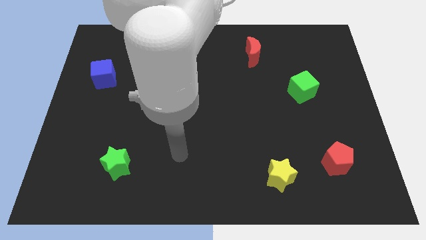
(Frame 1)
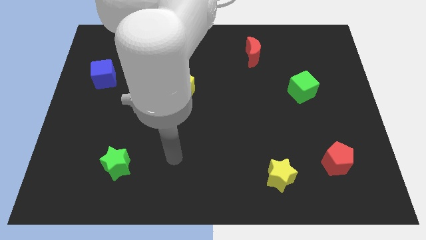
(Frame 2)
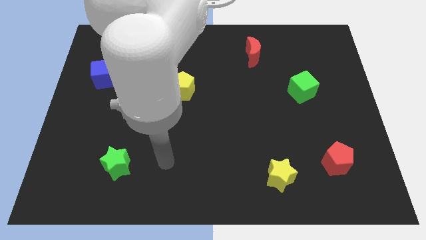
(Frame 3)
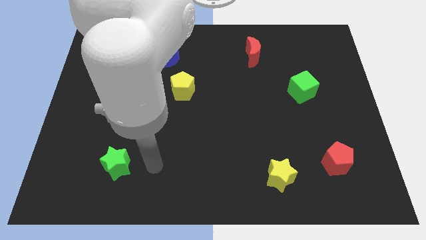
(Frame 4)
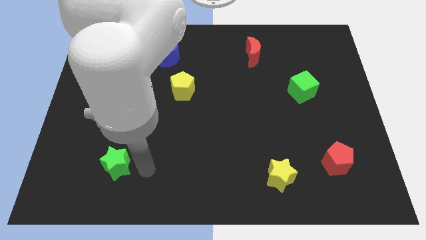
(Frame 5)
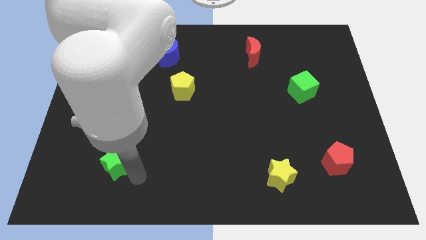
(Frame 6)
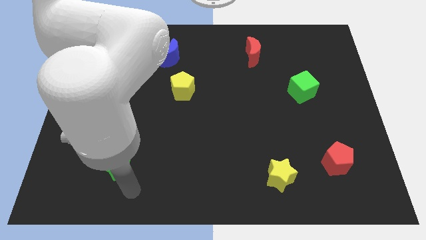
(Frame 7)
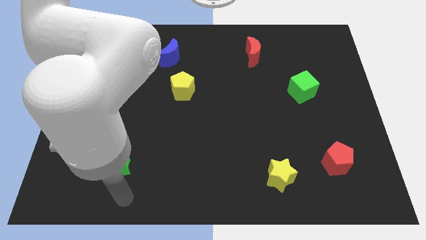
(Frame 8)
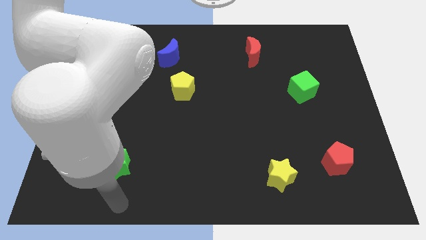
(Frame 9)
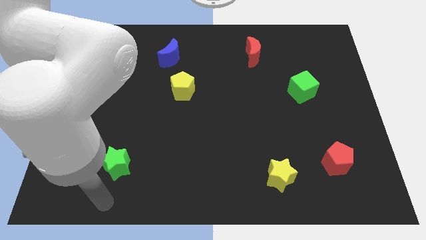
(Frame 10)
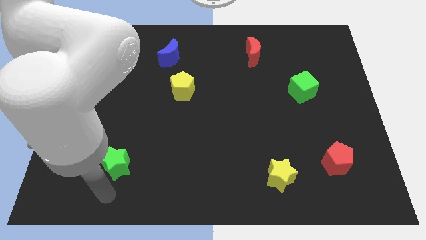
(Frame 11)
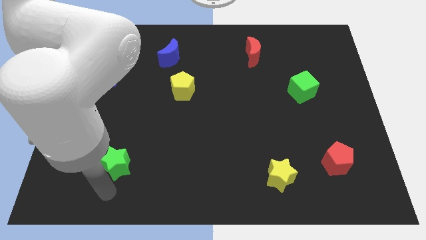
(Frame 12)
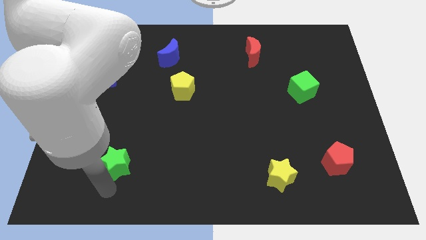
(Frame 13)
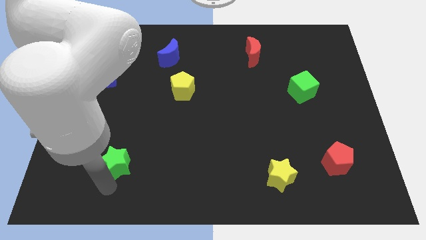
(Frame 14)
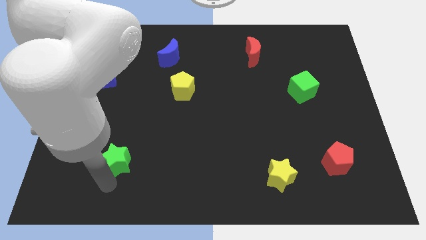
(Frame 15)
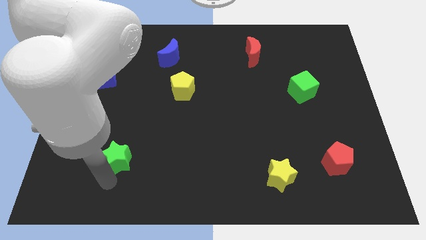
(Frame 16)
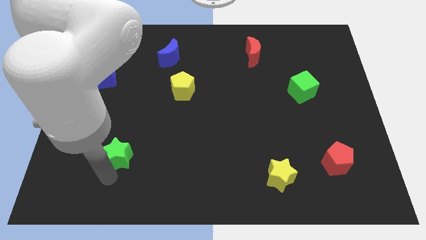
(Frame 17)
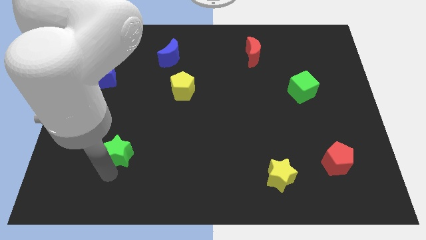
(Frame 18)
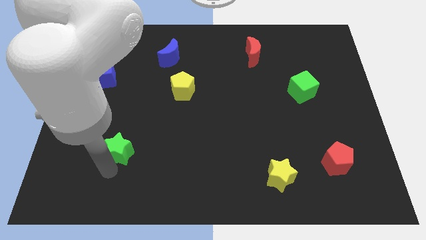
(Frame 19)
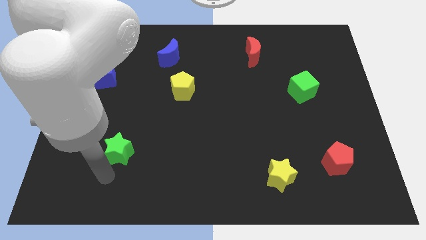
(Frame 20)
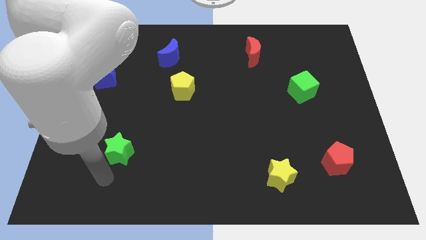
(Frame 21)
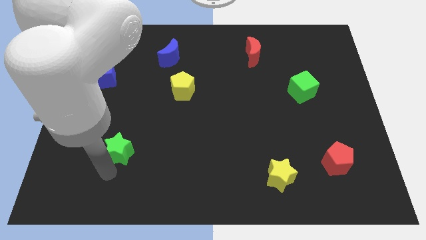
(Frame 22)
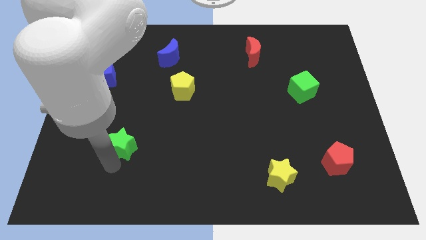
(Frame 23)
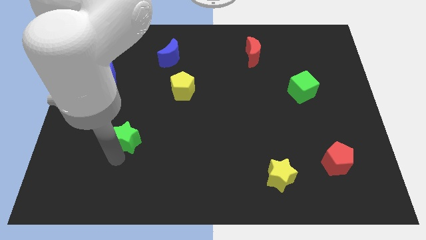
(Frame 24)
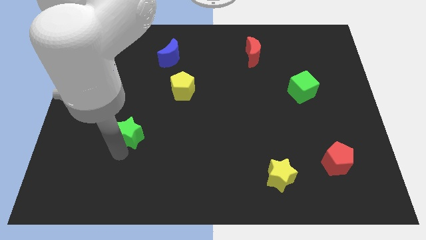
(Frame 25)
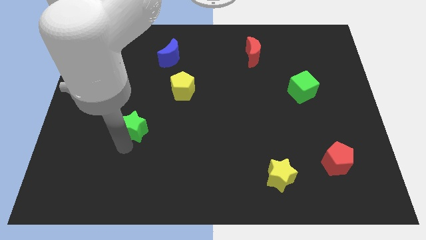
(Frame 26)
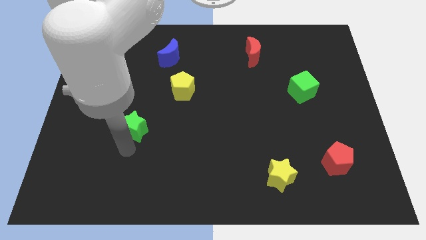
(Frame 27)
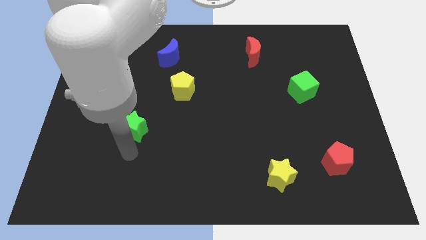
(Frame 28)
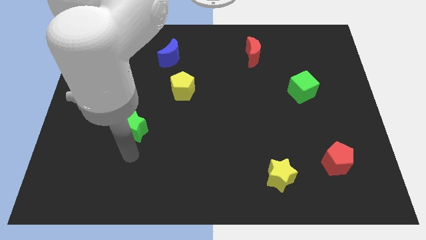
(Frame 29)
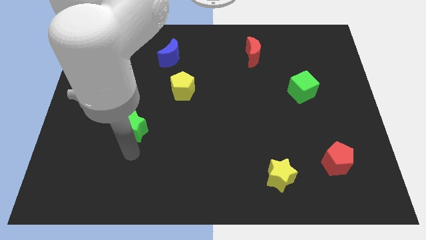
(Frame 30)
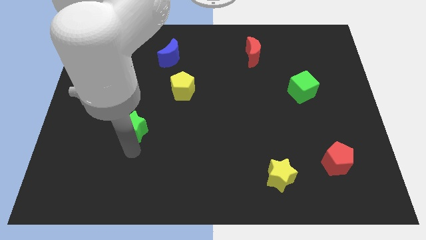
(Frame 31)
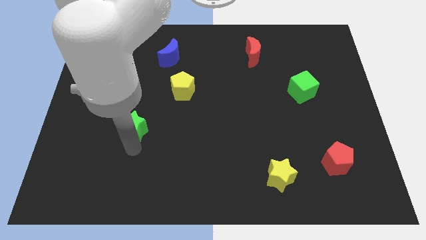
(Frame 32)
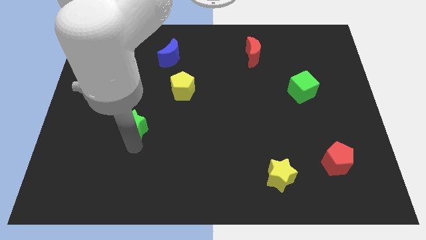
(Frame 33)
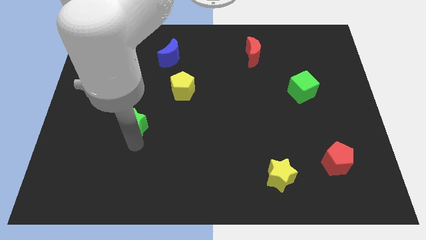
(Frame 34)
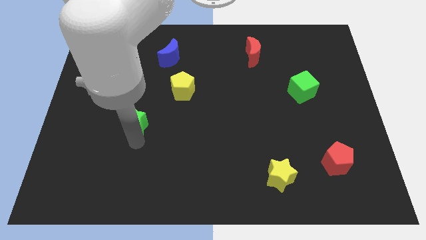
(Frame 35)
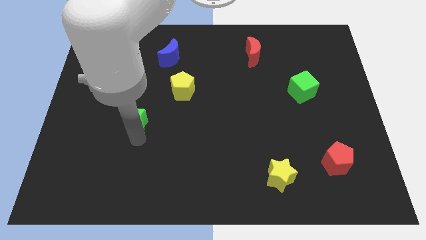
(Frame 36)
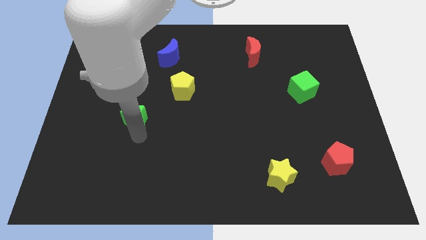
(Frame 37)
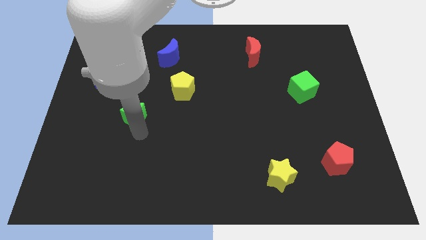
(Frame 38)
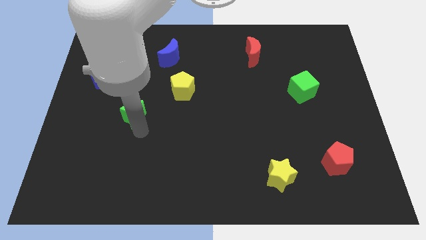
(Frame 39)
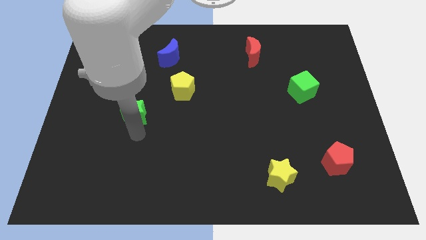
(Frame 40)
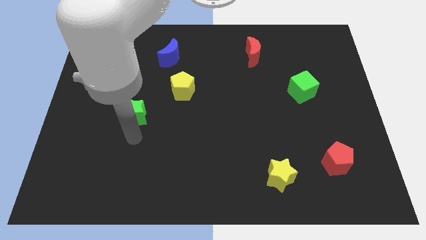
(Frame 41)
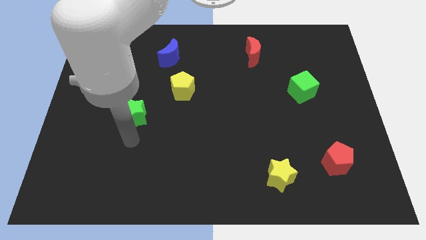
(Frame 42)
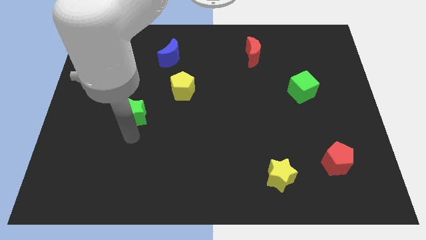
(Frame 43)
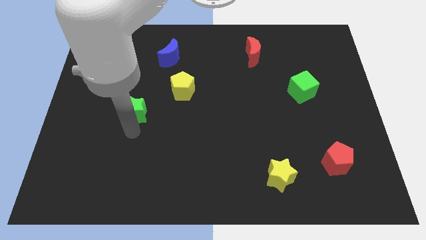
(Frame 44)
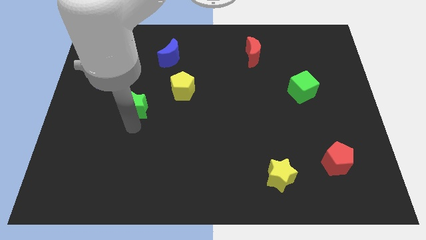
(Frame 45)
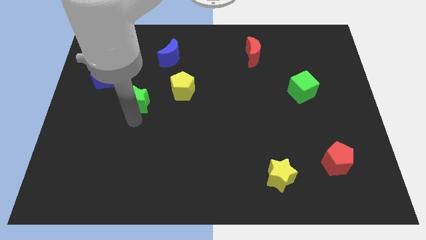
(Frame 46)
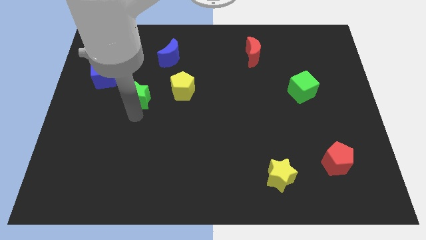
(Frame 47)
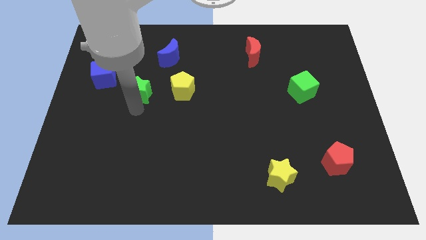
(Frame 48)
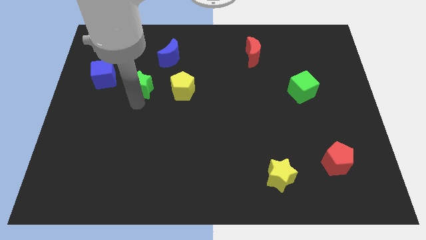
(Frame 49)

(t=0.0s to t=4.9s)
move the green star to the right of the blue cube

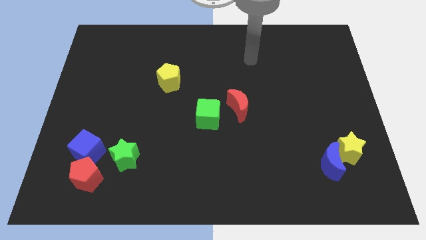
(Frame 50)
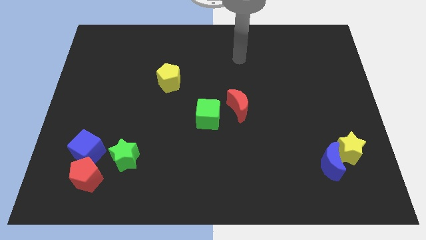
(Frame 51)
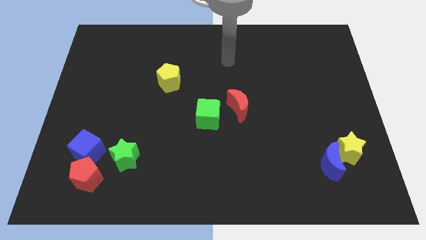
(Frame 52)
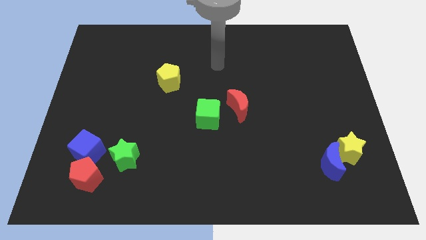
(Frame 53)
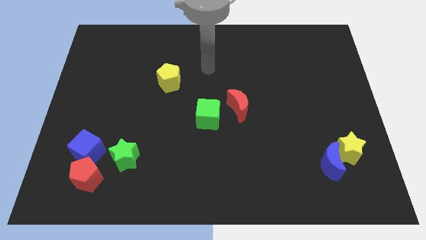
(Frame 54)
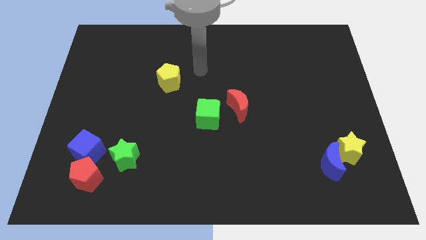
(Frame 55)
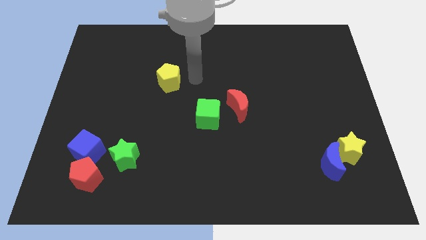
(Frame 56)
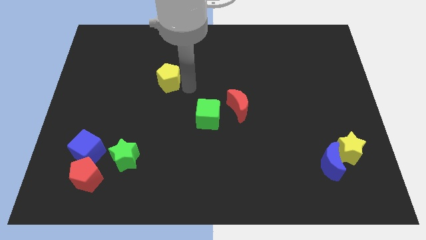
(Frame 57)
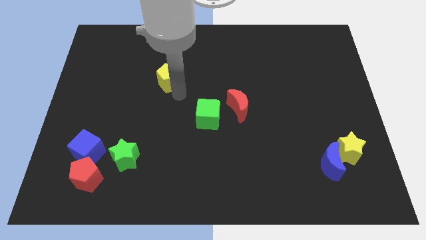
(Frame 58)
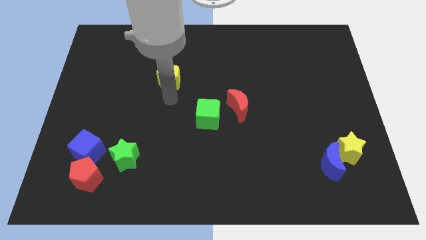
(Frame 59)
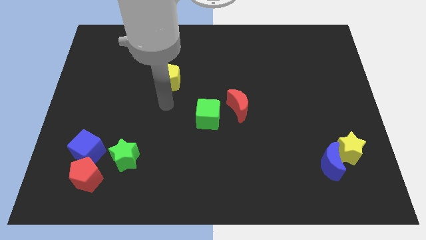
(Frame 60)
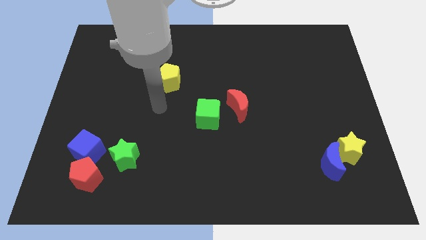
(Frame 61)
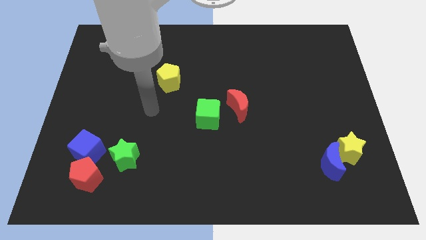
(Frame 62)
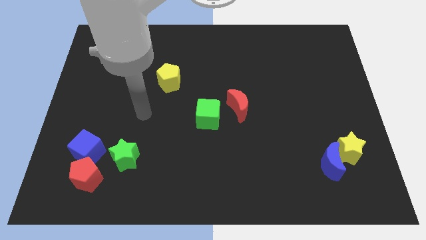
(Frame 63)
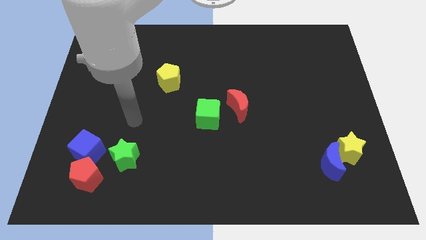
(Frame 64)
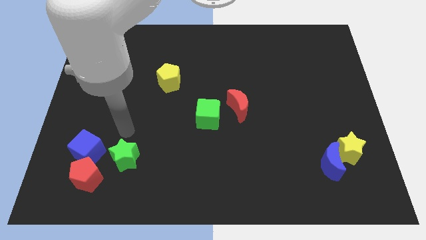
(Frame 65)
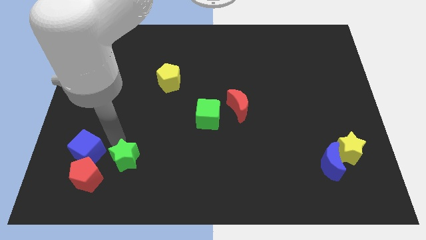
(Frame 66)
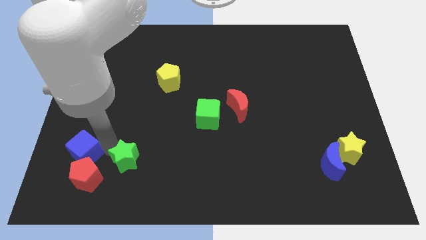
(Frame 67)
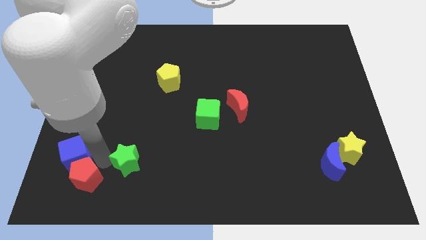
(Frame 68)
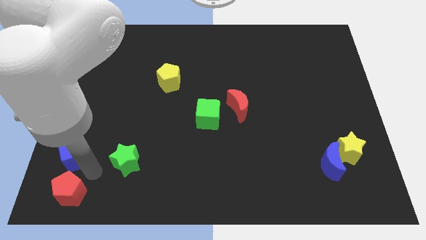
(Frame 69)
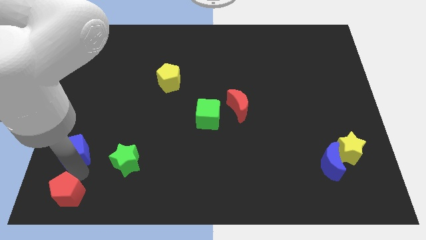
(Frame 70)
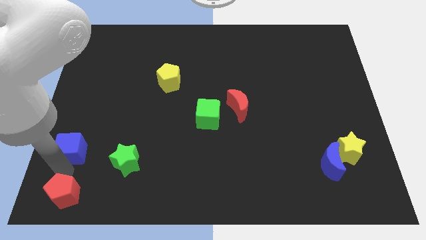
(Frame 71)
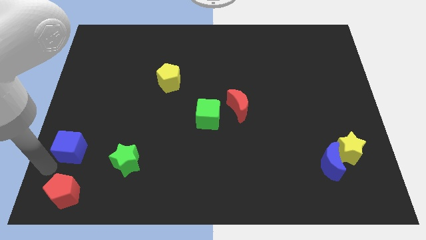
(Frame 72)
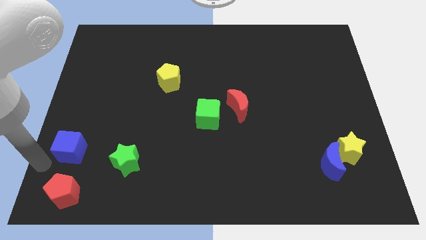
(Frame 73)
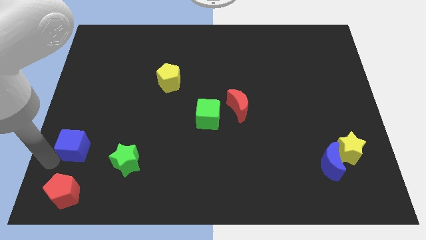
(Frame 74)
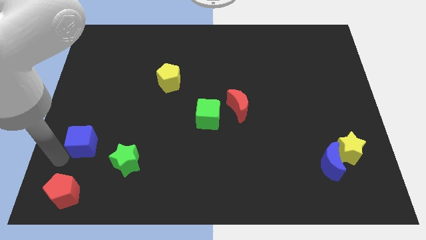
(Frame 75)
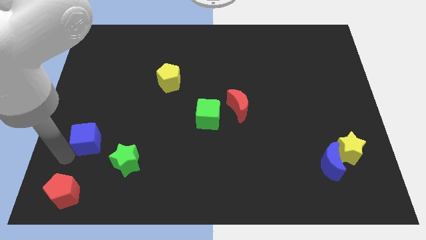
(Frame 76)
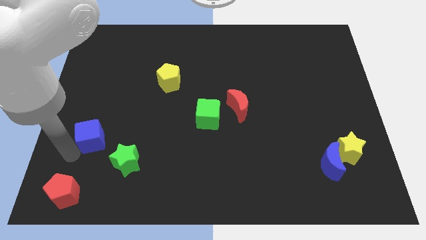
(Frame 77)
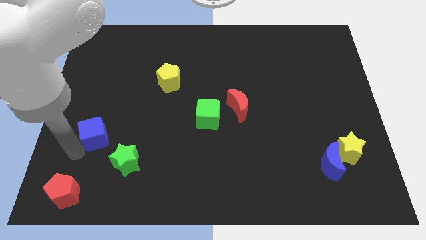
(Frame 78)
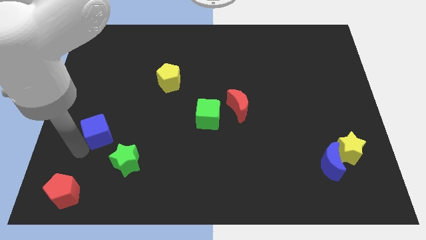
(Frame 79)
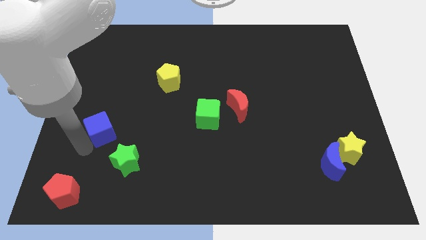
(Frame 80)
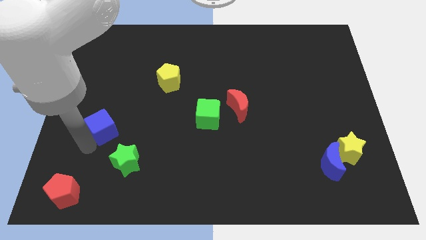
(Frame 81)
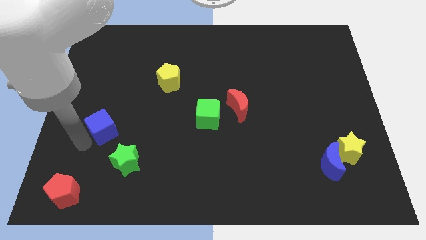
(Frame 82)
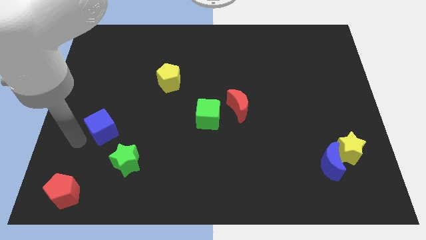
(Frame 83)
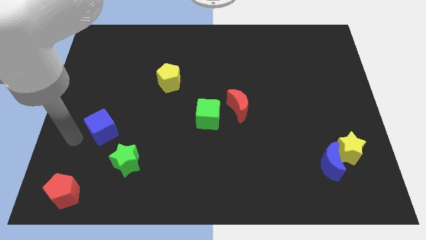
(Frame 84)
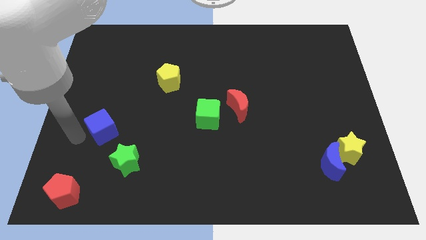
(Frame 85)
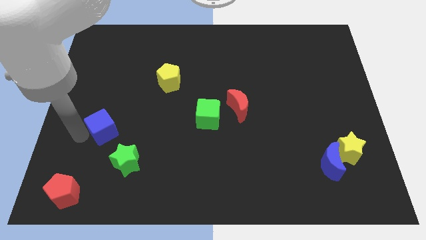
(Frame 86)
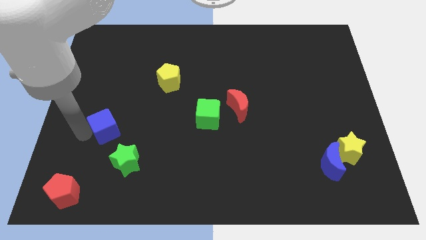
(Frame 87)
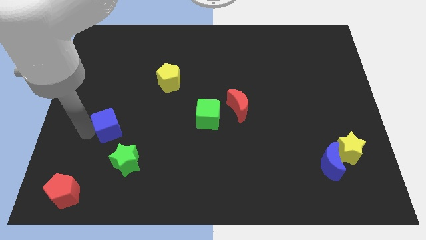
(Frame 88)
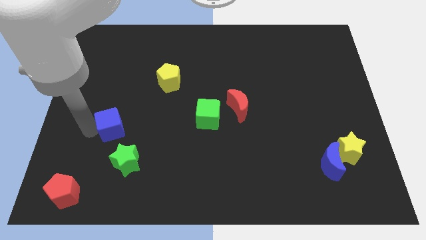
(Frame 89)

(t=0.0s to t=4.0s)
slide the blue cube to the top of the green star
